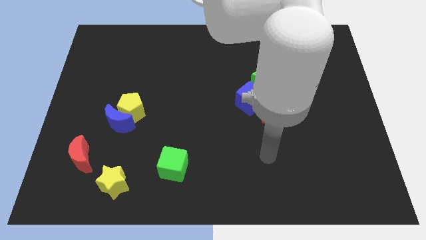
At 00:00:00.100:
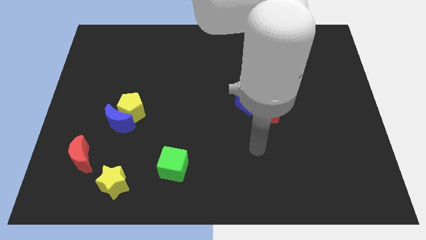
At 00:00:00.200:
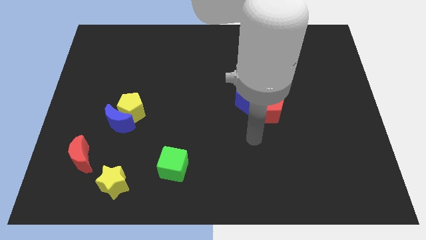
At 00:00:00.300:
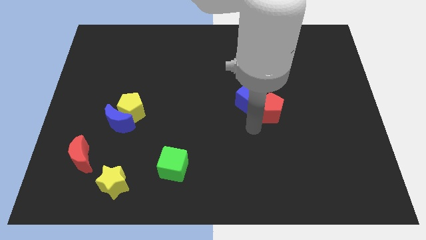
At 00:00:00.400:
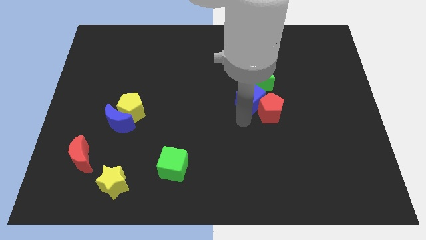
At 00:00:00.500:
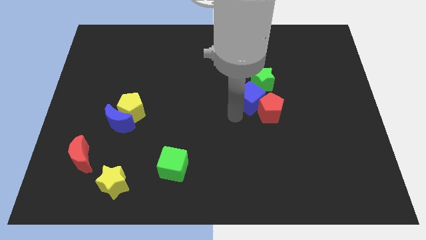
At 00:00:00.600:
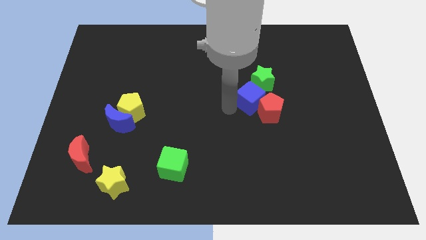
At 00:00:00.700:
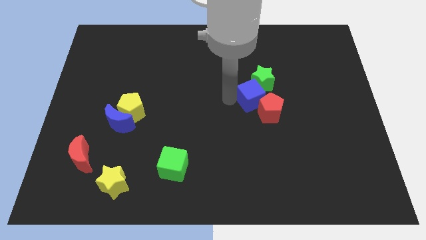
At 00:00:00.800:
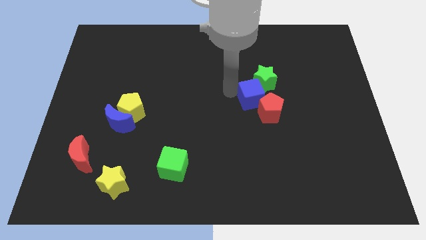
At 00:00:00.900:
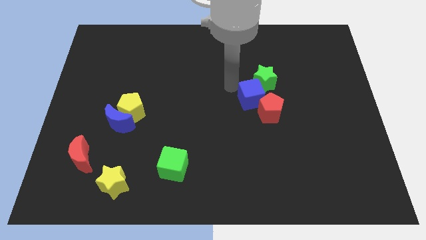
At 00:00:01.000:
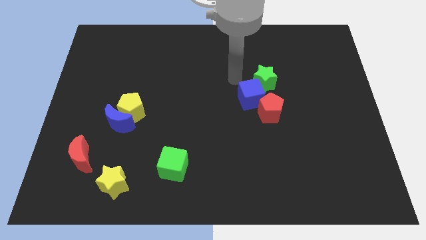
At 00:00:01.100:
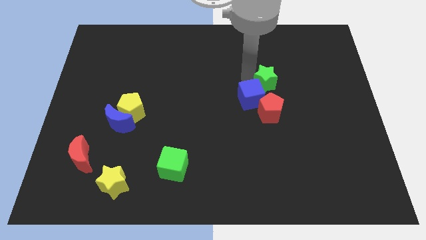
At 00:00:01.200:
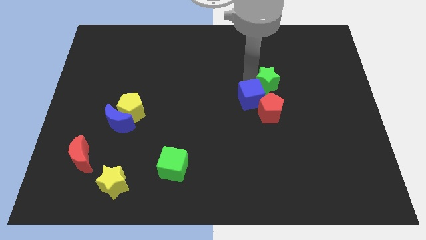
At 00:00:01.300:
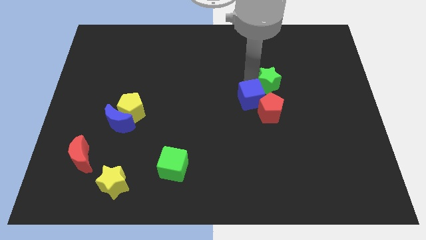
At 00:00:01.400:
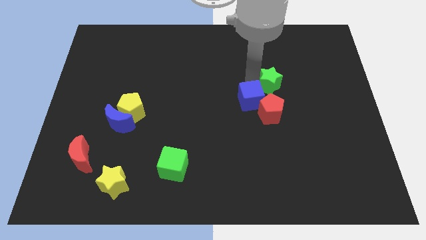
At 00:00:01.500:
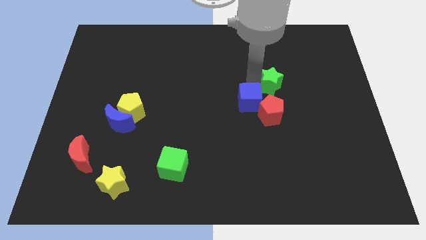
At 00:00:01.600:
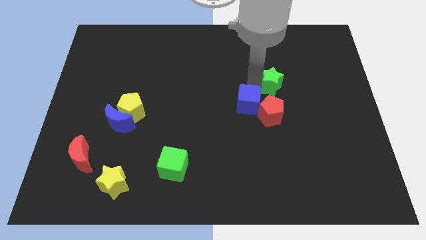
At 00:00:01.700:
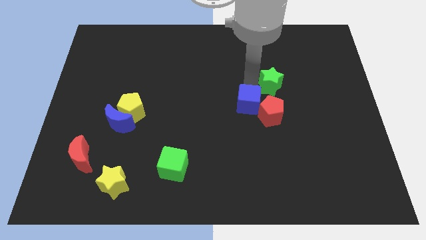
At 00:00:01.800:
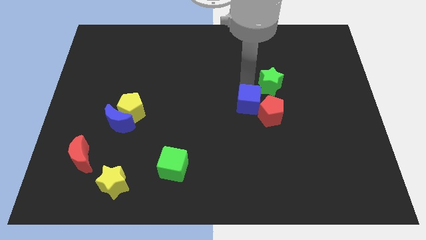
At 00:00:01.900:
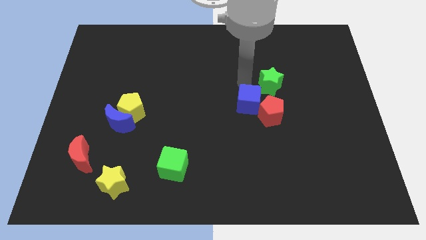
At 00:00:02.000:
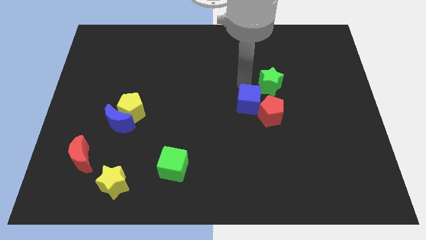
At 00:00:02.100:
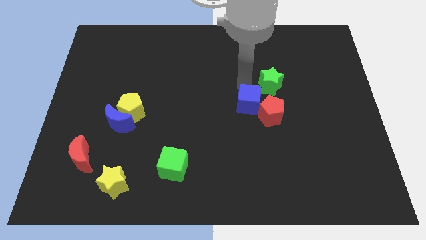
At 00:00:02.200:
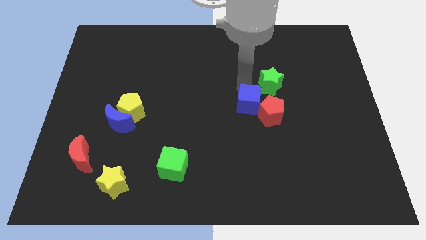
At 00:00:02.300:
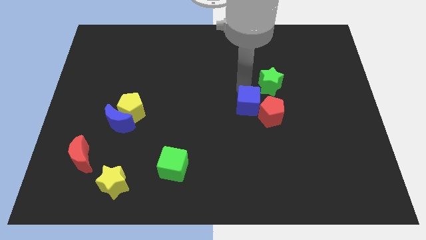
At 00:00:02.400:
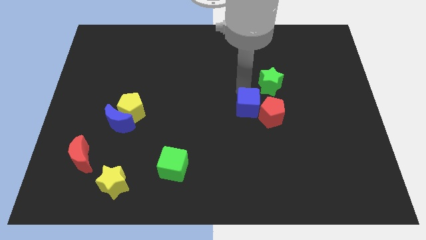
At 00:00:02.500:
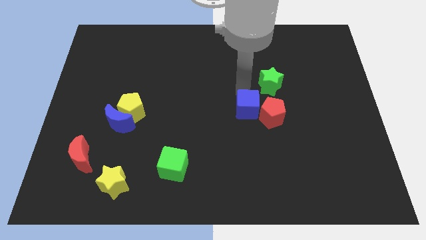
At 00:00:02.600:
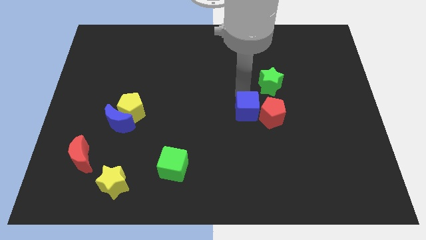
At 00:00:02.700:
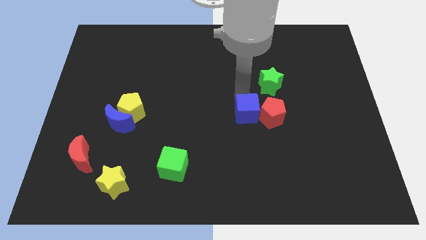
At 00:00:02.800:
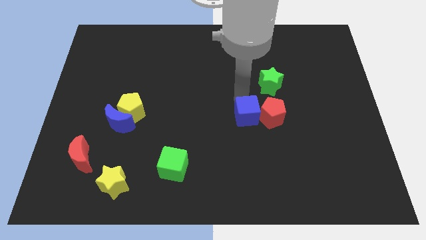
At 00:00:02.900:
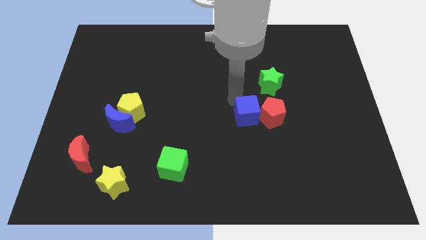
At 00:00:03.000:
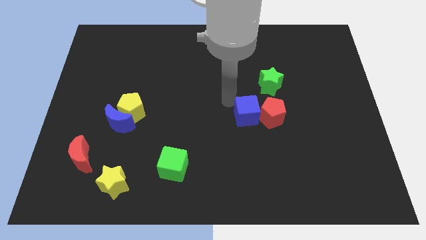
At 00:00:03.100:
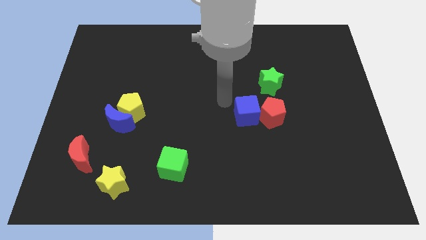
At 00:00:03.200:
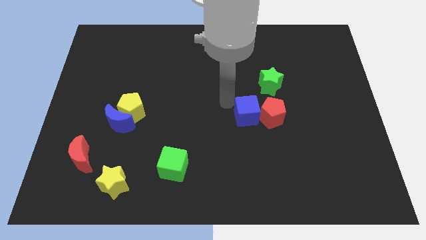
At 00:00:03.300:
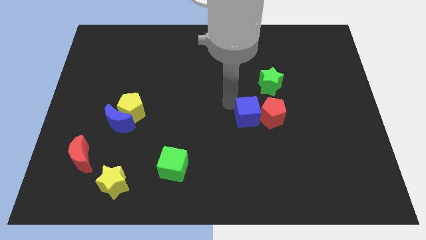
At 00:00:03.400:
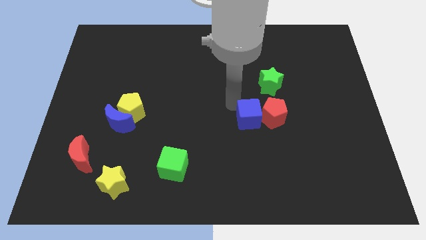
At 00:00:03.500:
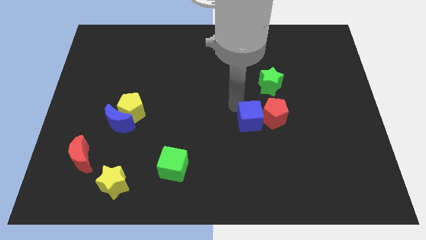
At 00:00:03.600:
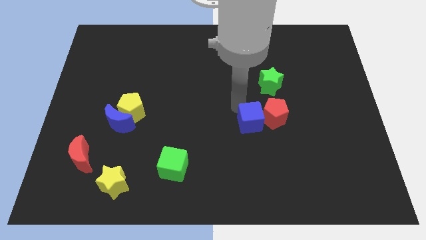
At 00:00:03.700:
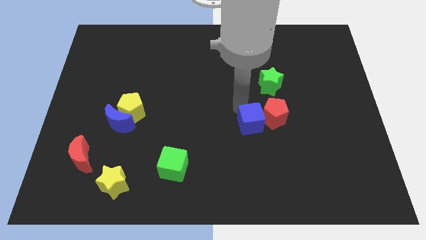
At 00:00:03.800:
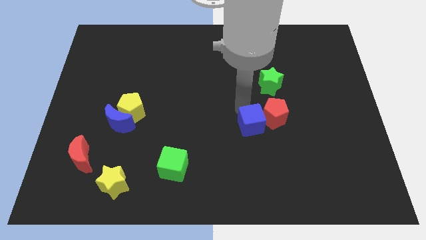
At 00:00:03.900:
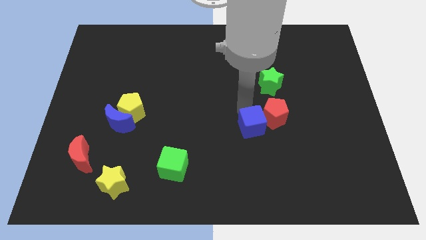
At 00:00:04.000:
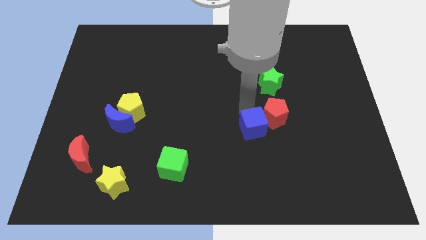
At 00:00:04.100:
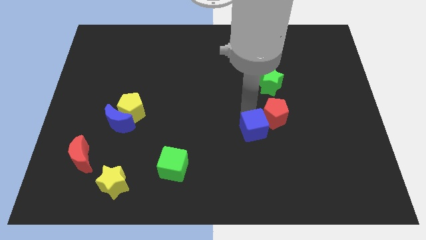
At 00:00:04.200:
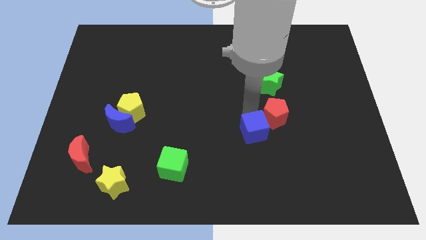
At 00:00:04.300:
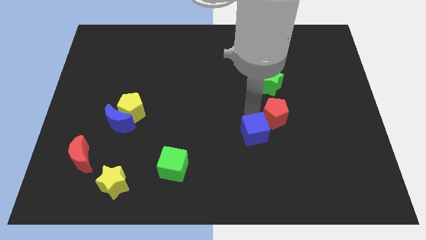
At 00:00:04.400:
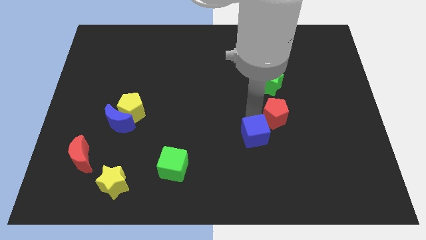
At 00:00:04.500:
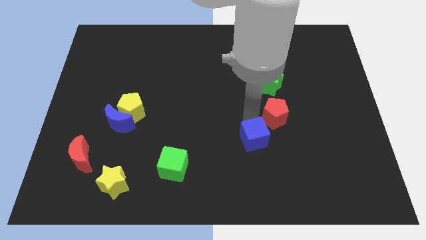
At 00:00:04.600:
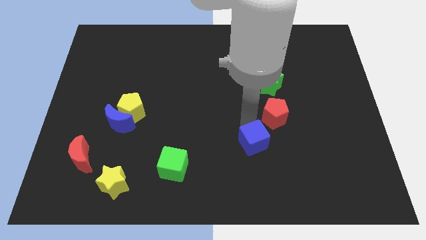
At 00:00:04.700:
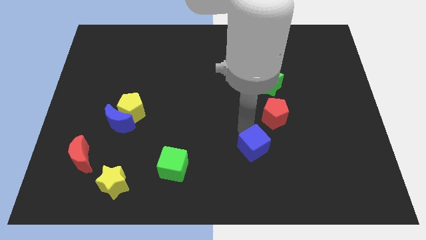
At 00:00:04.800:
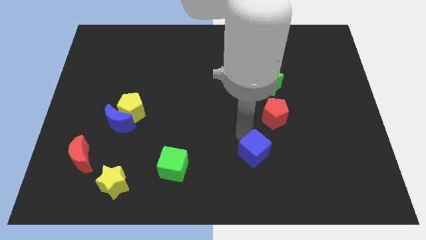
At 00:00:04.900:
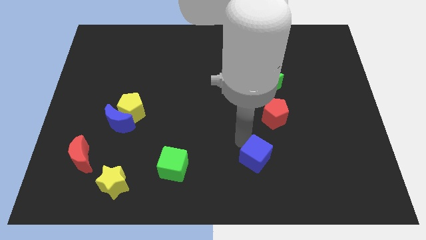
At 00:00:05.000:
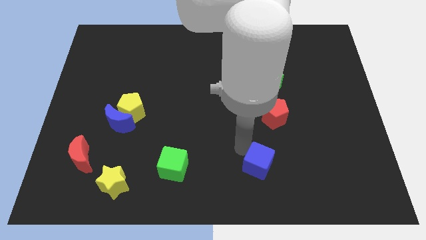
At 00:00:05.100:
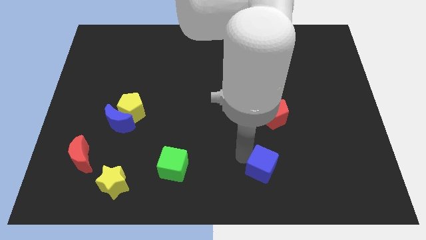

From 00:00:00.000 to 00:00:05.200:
push the blue cube diagonally down and to the right a little

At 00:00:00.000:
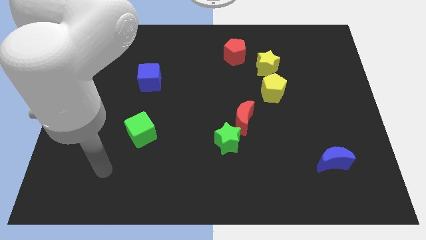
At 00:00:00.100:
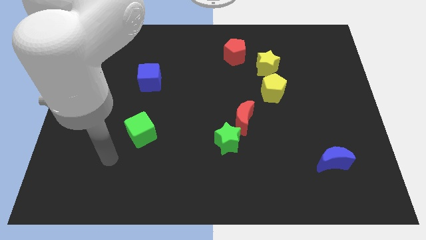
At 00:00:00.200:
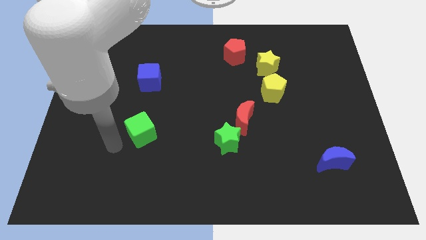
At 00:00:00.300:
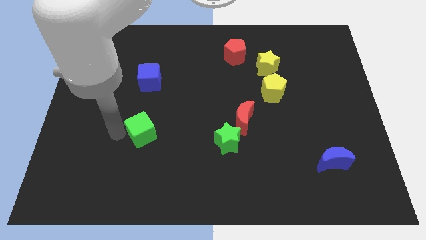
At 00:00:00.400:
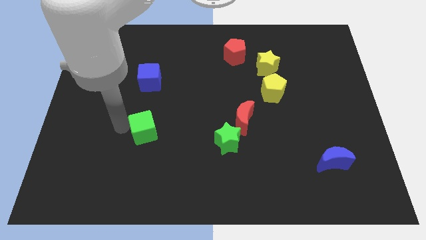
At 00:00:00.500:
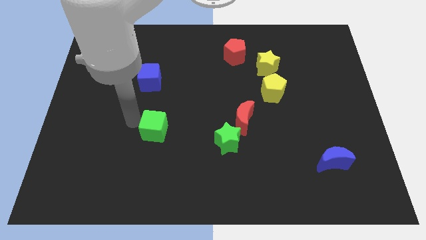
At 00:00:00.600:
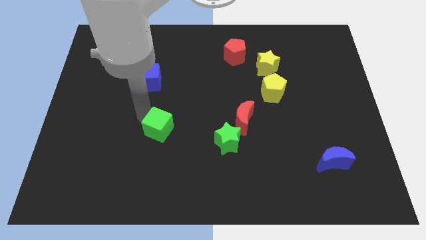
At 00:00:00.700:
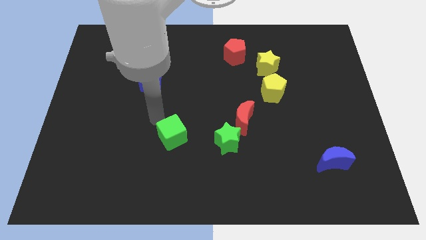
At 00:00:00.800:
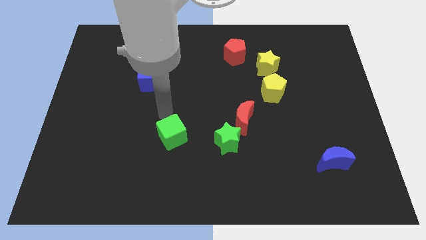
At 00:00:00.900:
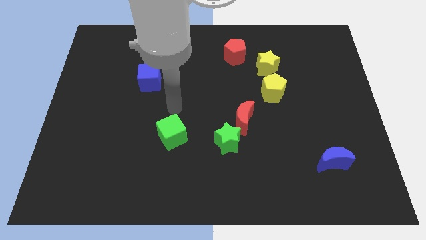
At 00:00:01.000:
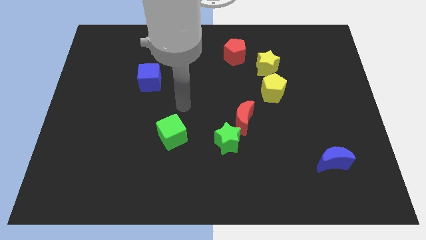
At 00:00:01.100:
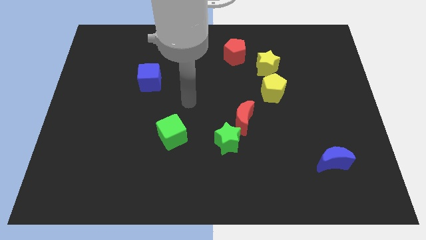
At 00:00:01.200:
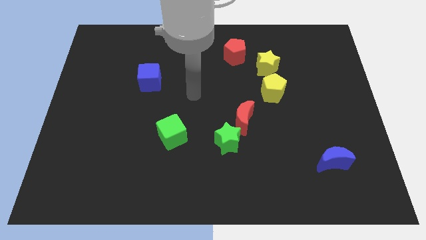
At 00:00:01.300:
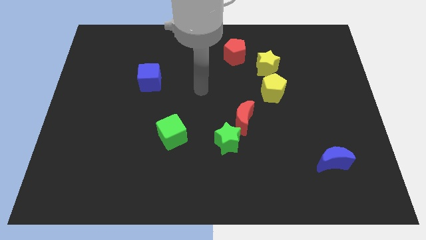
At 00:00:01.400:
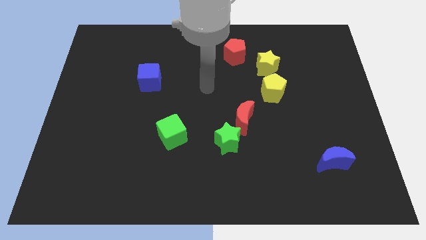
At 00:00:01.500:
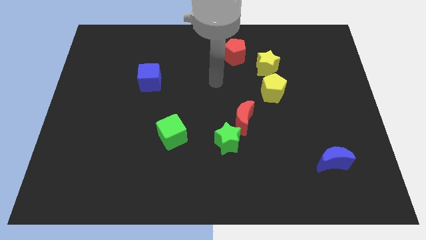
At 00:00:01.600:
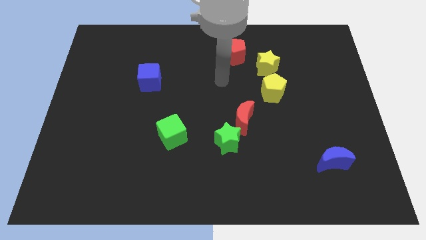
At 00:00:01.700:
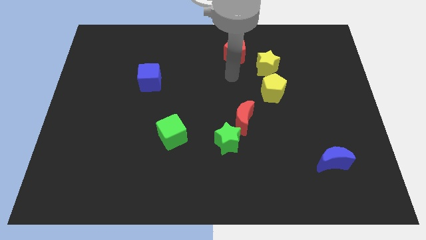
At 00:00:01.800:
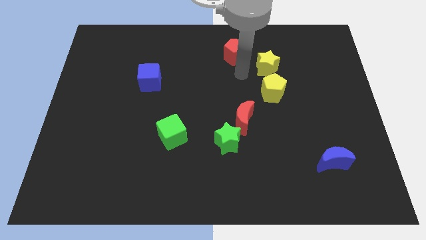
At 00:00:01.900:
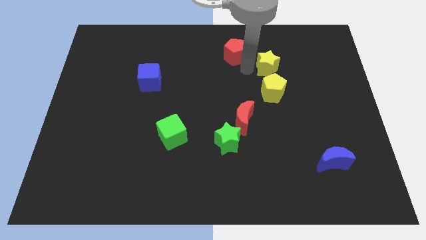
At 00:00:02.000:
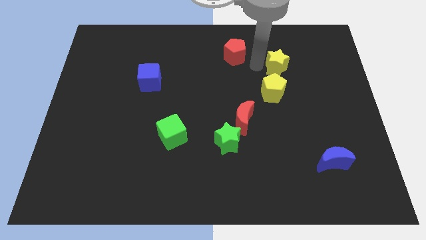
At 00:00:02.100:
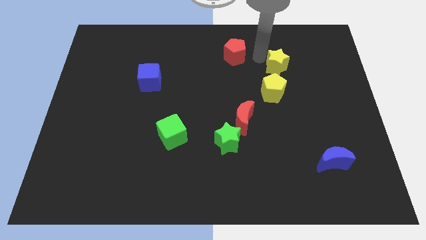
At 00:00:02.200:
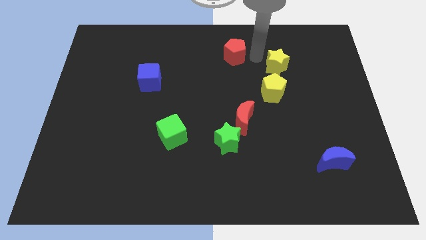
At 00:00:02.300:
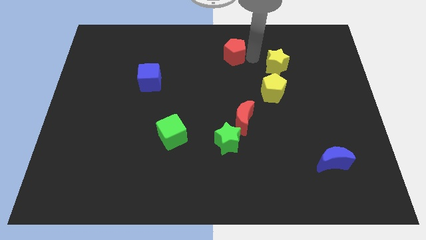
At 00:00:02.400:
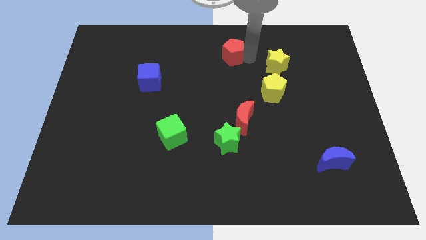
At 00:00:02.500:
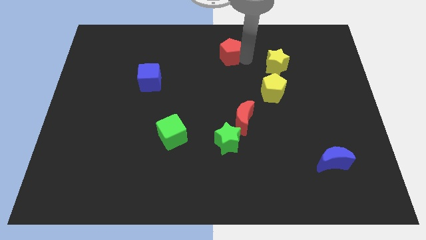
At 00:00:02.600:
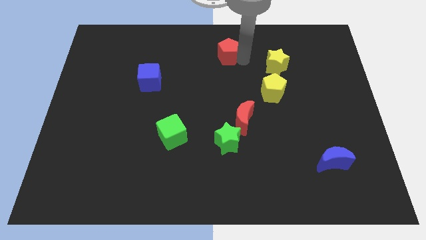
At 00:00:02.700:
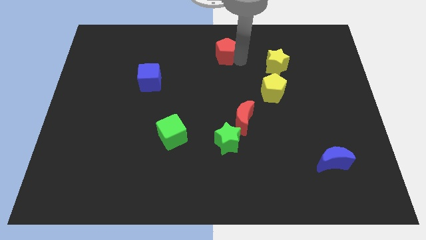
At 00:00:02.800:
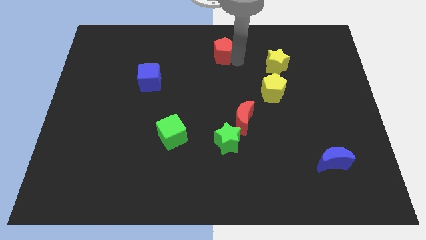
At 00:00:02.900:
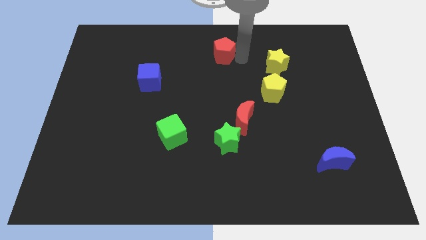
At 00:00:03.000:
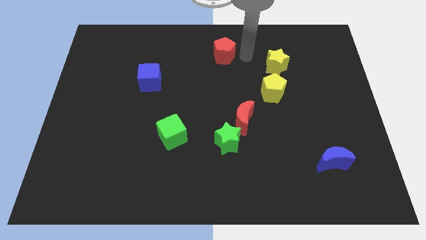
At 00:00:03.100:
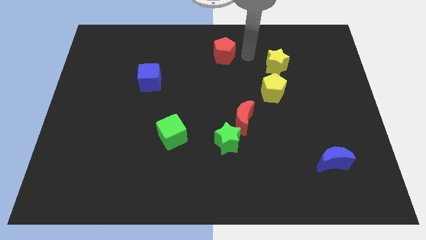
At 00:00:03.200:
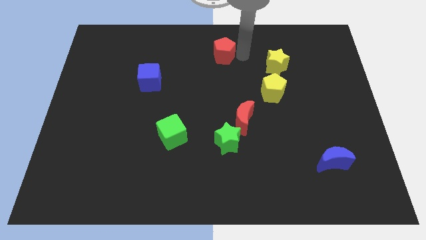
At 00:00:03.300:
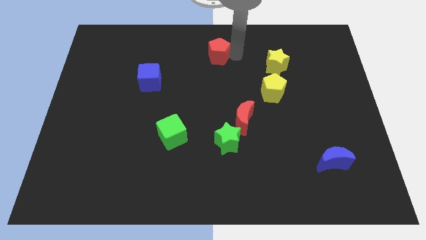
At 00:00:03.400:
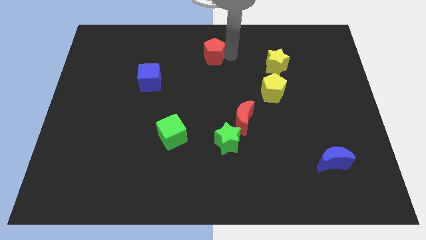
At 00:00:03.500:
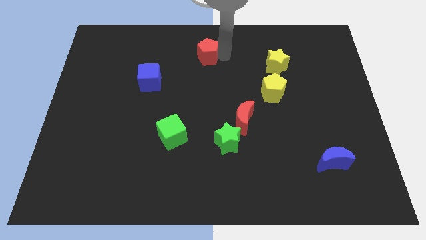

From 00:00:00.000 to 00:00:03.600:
slide the red pentagon to the left a bit
